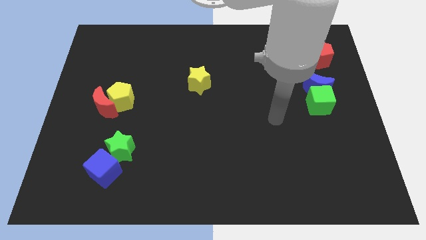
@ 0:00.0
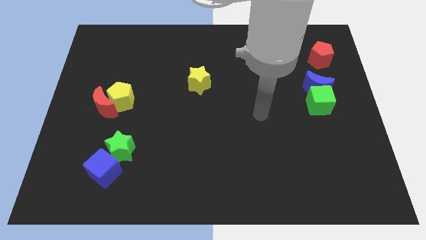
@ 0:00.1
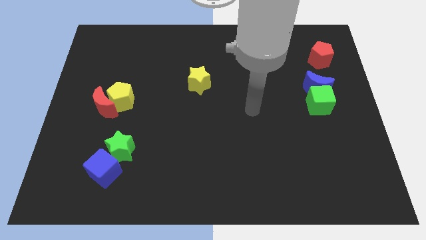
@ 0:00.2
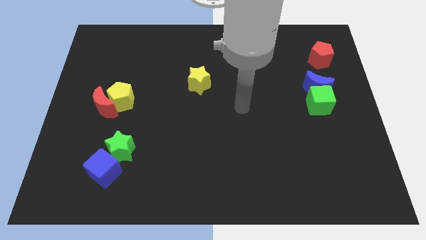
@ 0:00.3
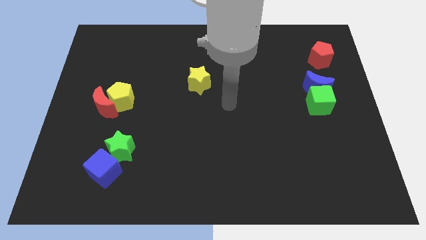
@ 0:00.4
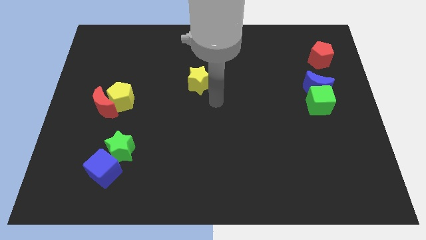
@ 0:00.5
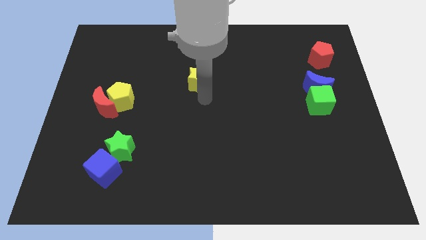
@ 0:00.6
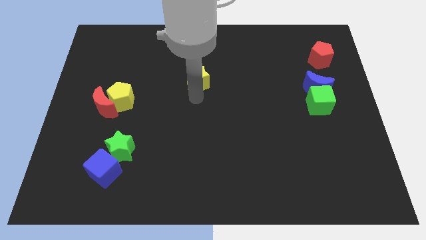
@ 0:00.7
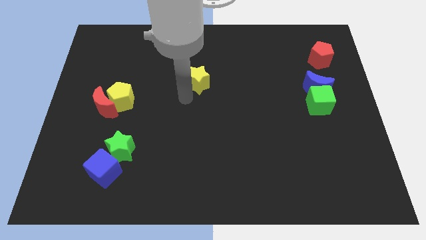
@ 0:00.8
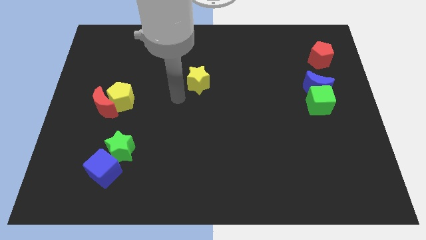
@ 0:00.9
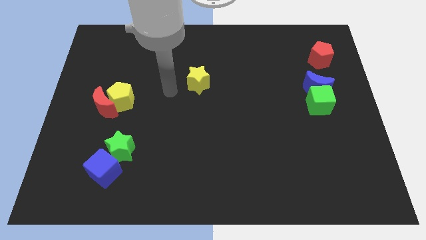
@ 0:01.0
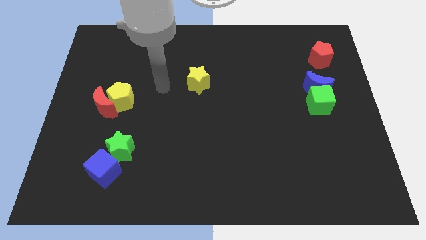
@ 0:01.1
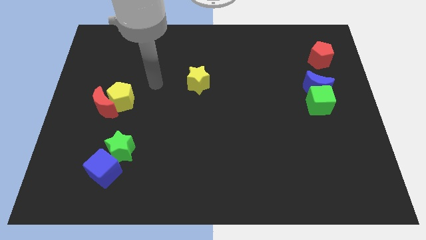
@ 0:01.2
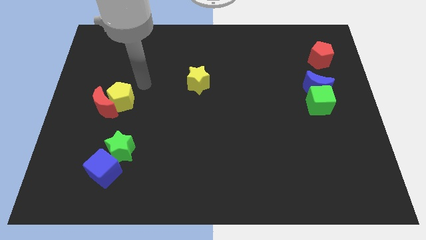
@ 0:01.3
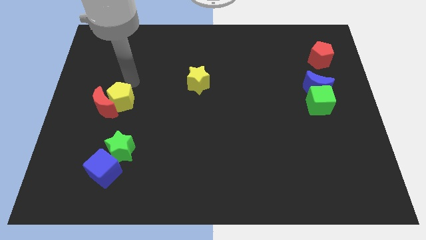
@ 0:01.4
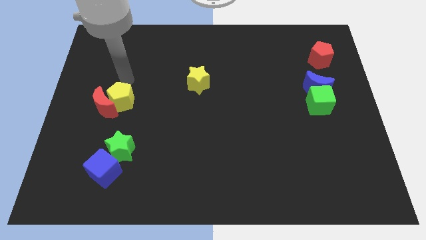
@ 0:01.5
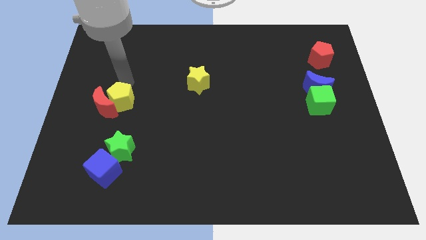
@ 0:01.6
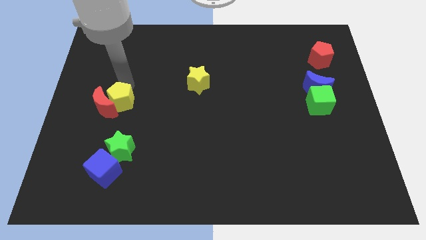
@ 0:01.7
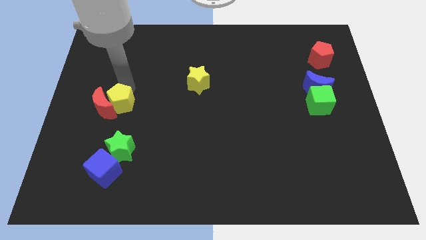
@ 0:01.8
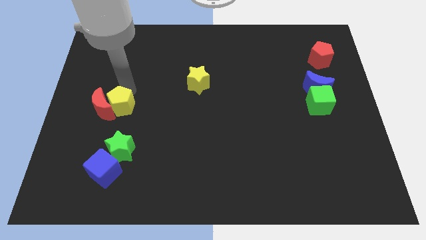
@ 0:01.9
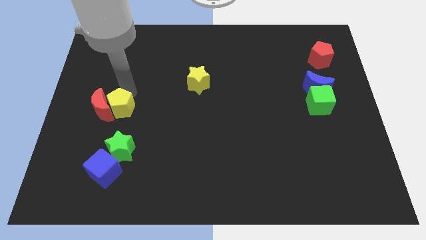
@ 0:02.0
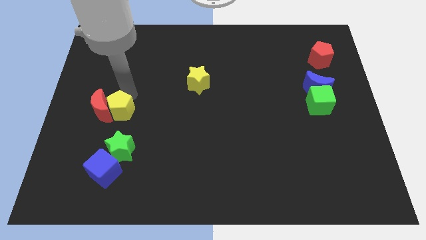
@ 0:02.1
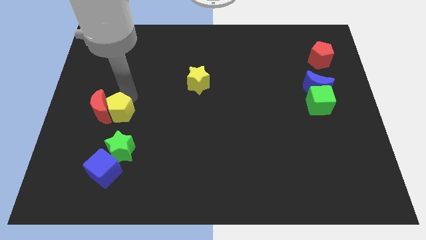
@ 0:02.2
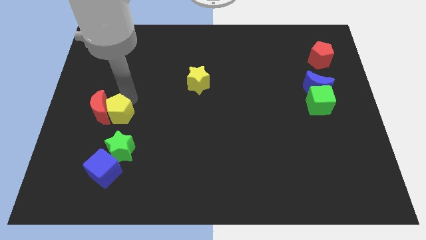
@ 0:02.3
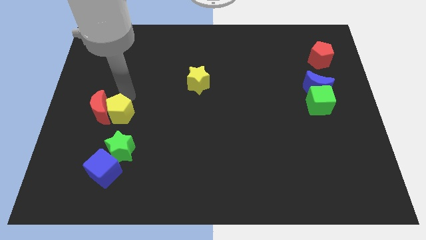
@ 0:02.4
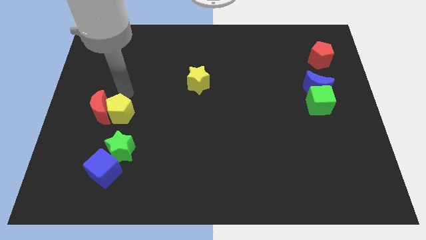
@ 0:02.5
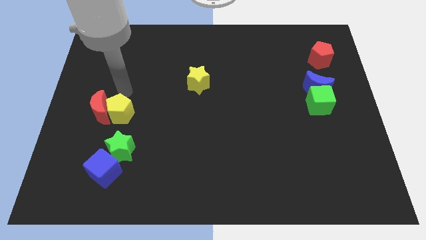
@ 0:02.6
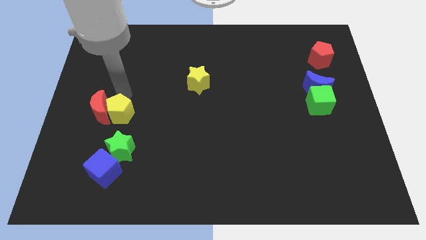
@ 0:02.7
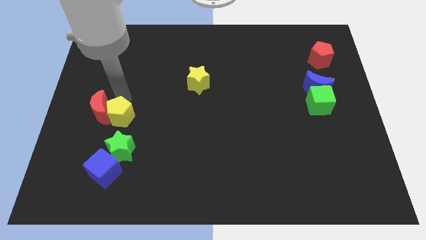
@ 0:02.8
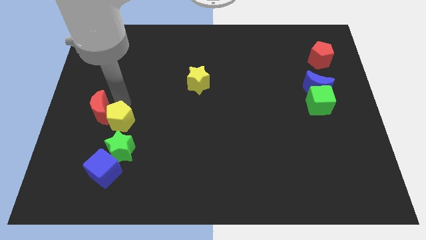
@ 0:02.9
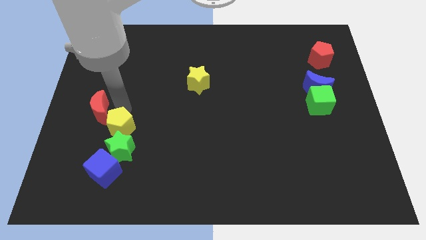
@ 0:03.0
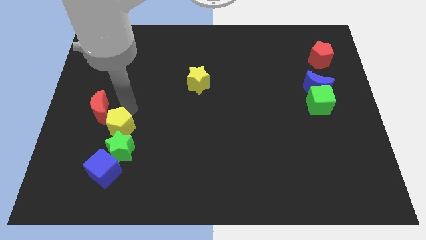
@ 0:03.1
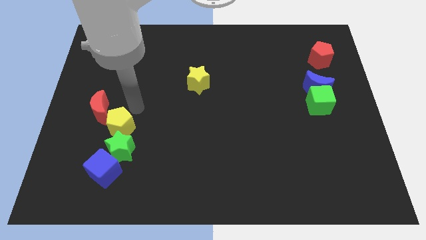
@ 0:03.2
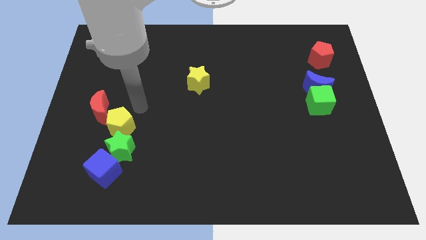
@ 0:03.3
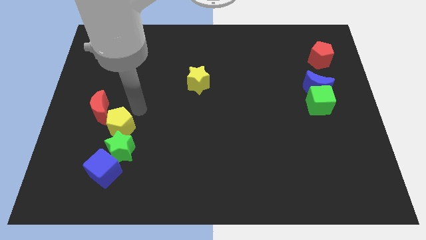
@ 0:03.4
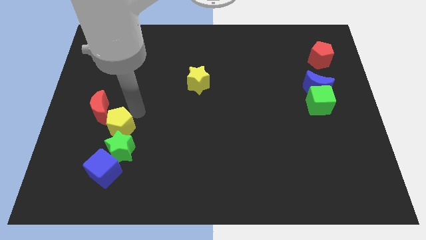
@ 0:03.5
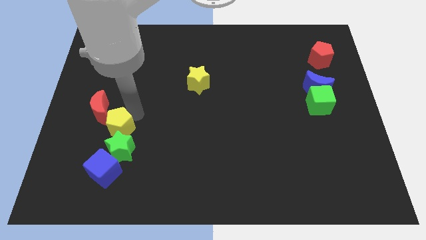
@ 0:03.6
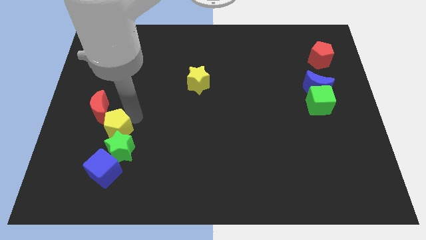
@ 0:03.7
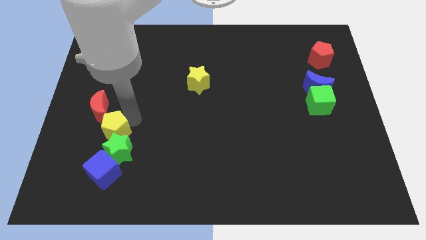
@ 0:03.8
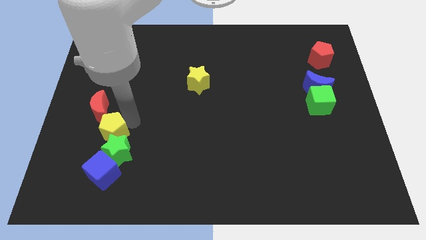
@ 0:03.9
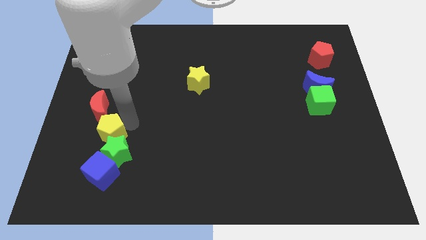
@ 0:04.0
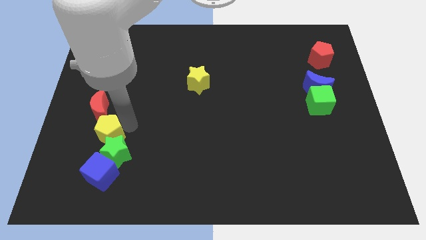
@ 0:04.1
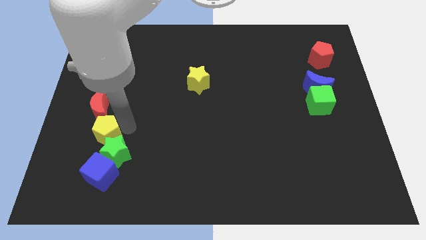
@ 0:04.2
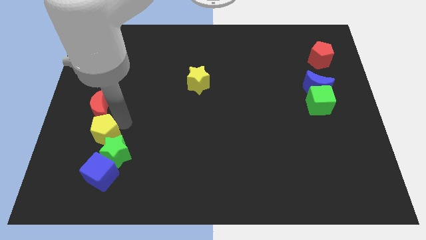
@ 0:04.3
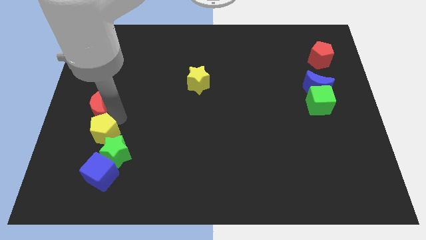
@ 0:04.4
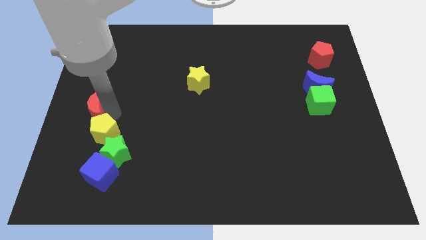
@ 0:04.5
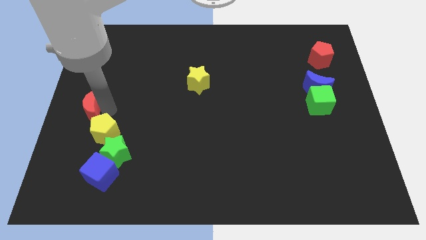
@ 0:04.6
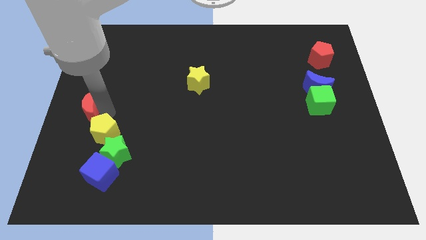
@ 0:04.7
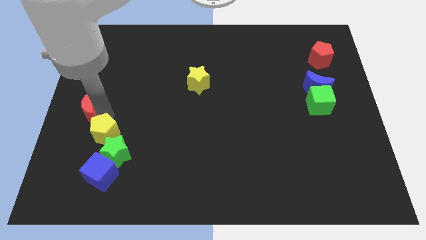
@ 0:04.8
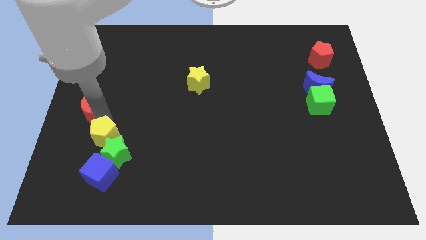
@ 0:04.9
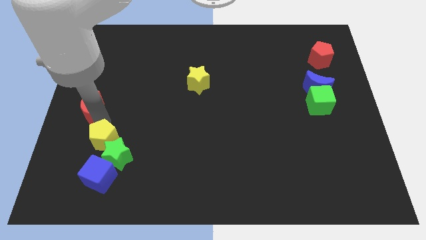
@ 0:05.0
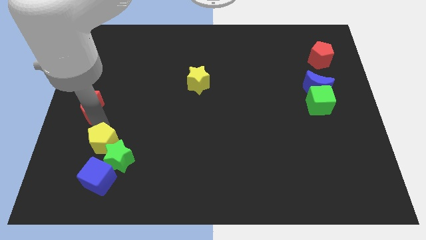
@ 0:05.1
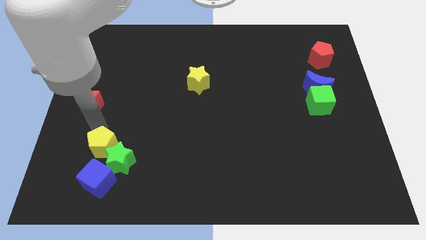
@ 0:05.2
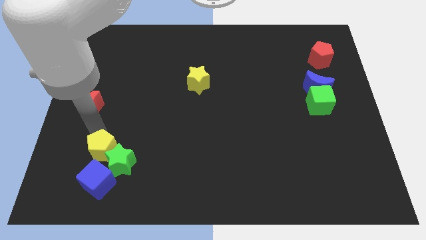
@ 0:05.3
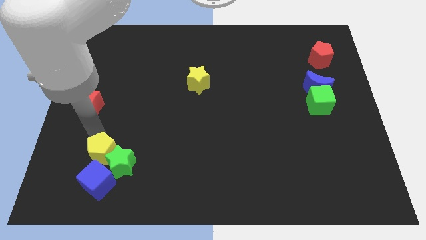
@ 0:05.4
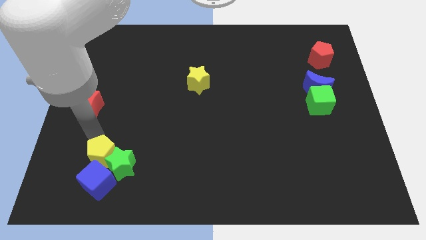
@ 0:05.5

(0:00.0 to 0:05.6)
move the yellow pentagon next to the blue cube

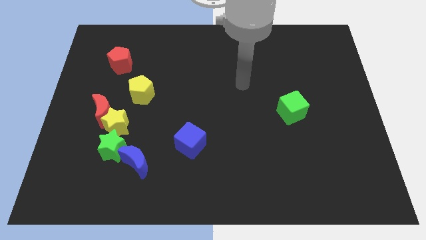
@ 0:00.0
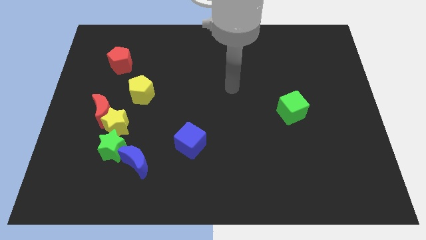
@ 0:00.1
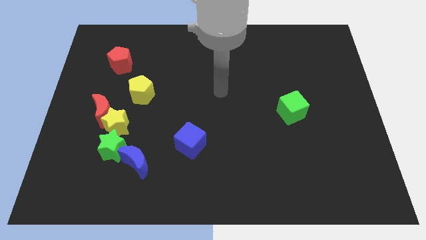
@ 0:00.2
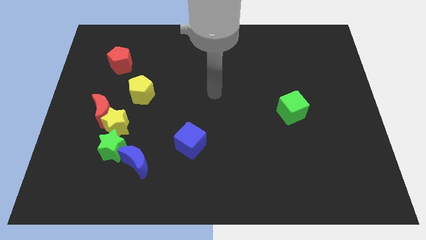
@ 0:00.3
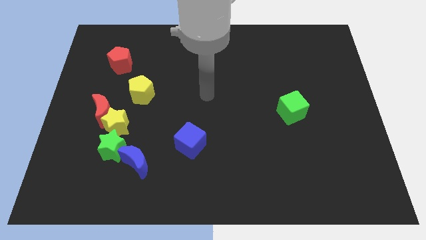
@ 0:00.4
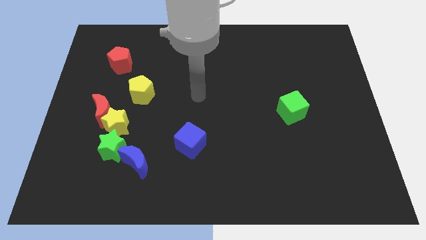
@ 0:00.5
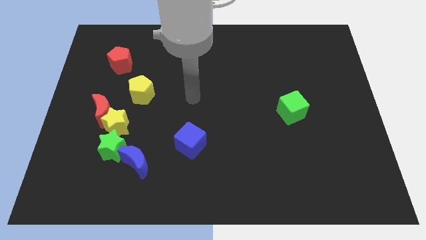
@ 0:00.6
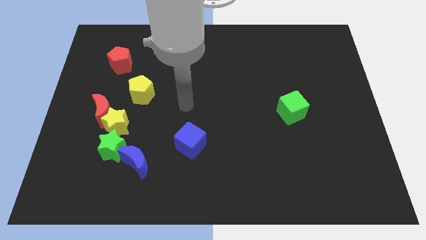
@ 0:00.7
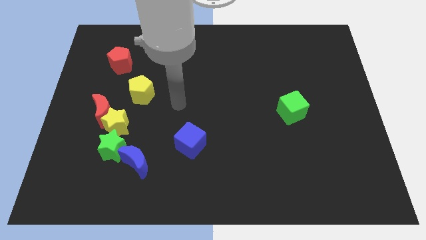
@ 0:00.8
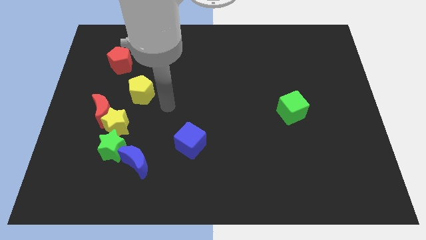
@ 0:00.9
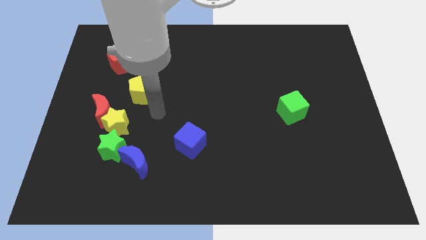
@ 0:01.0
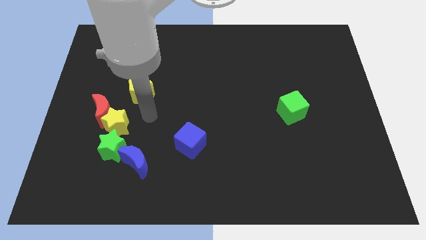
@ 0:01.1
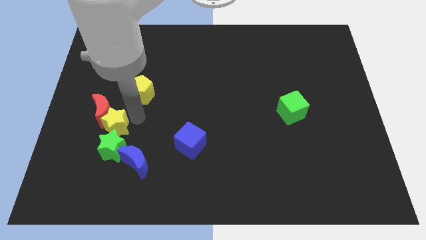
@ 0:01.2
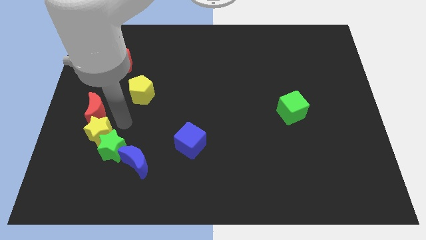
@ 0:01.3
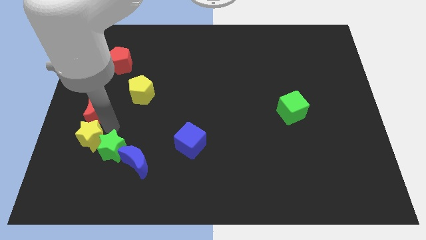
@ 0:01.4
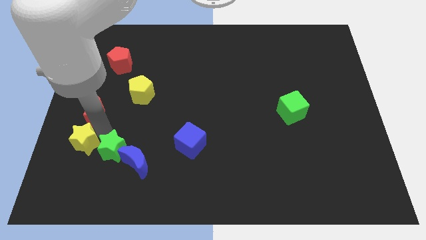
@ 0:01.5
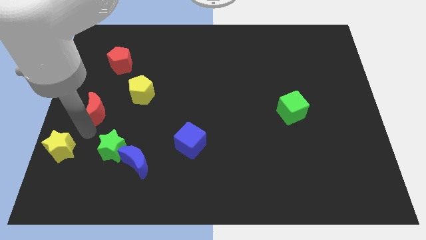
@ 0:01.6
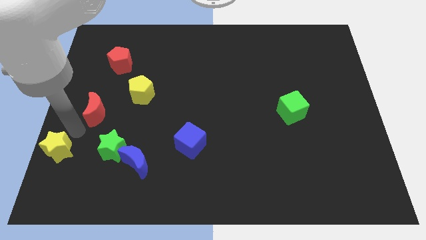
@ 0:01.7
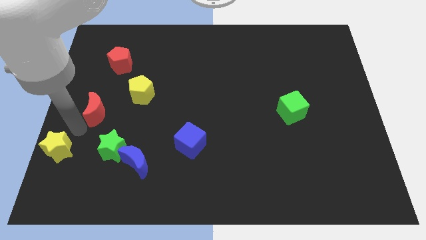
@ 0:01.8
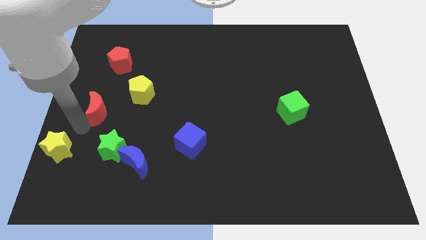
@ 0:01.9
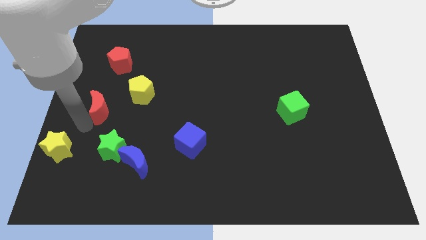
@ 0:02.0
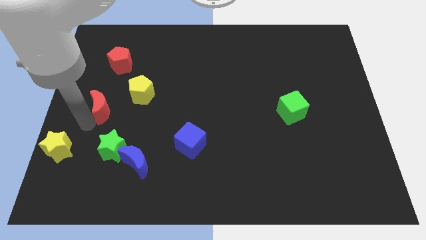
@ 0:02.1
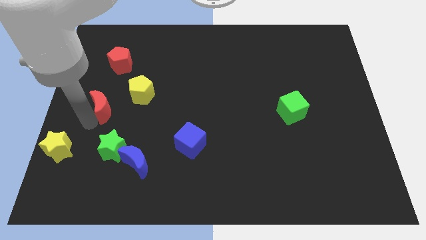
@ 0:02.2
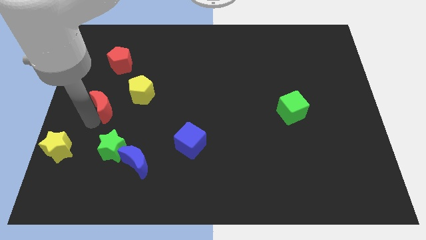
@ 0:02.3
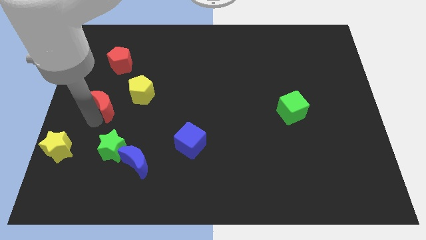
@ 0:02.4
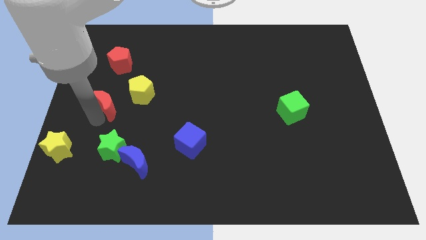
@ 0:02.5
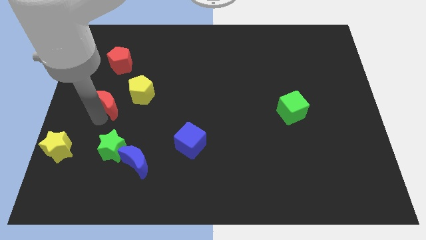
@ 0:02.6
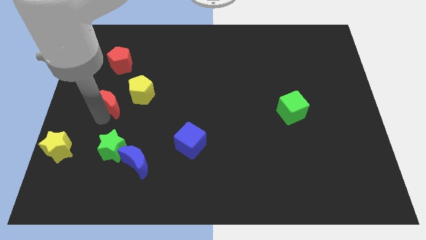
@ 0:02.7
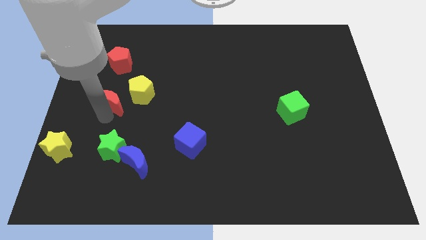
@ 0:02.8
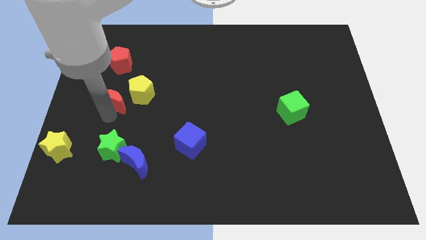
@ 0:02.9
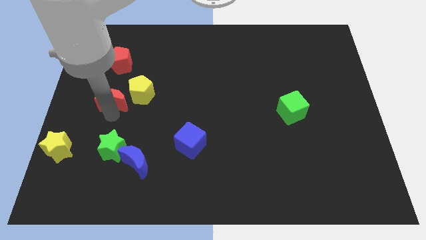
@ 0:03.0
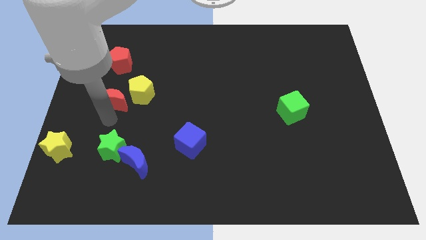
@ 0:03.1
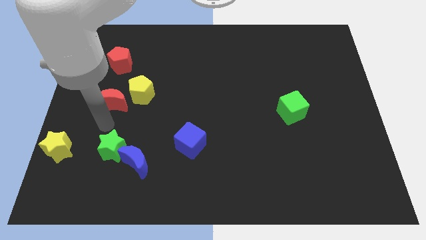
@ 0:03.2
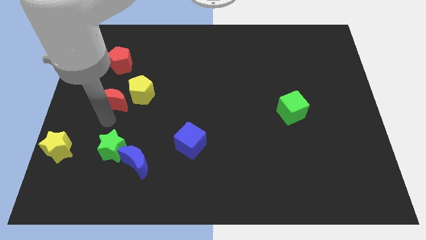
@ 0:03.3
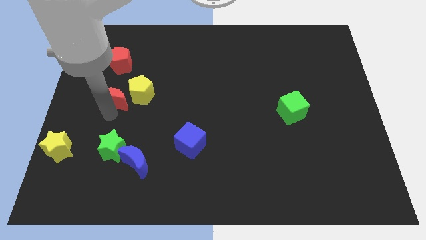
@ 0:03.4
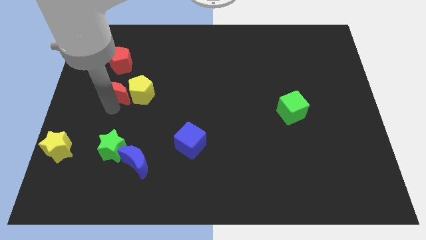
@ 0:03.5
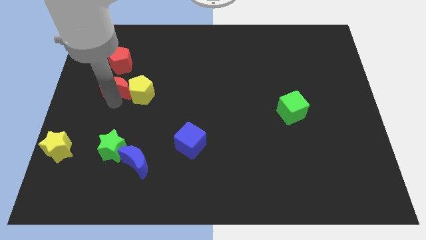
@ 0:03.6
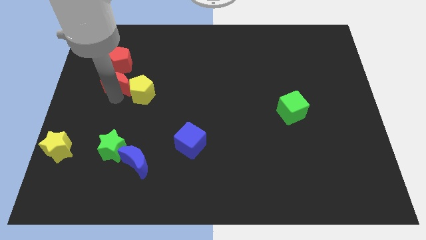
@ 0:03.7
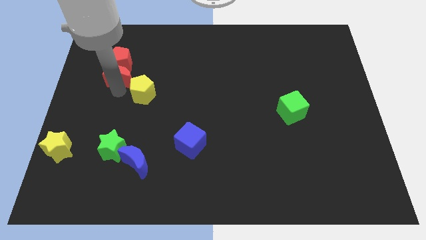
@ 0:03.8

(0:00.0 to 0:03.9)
push the red moon next to the red pentagon
